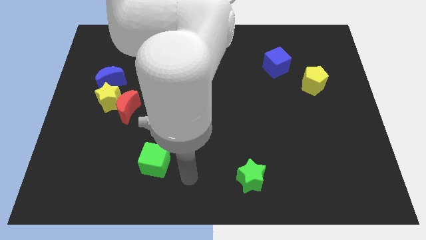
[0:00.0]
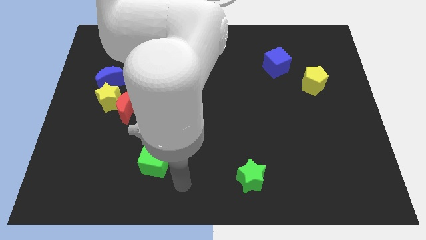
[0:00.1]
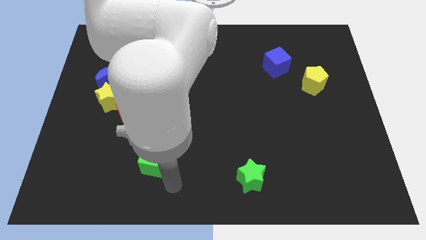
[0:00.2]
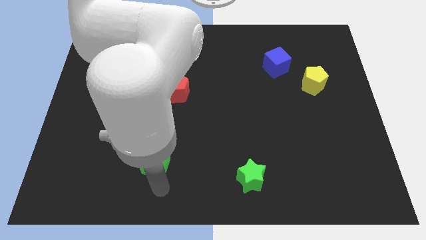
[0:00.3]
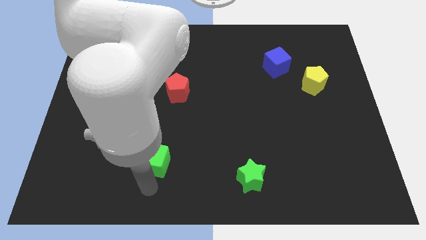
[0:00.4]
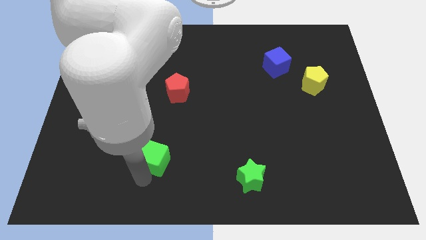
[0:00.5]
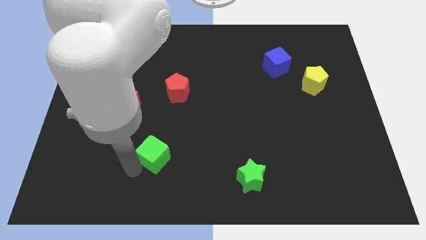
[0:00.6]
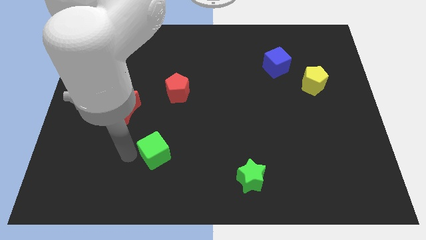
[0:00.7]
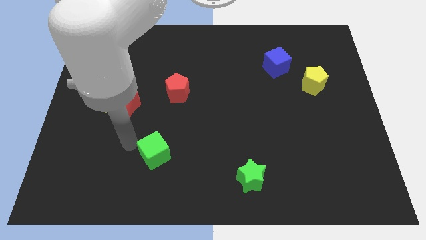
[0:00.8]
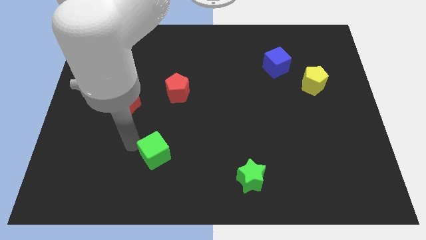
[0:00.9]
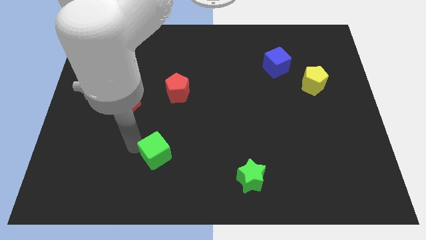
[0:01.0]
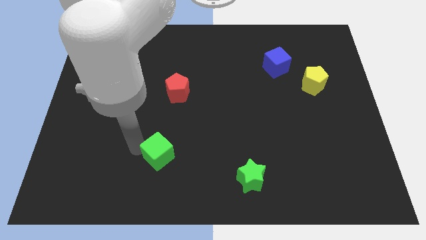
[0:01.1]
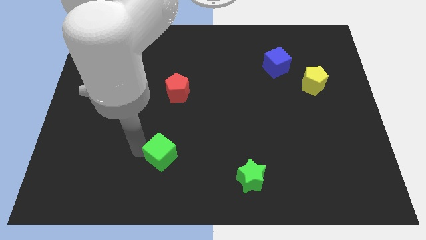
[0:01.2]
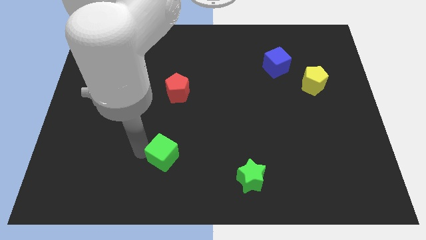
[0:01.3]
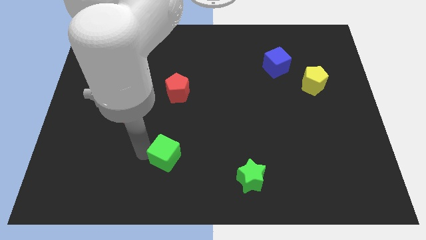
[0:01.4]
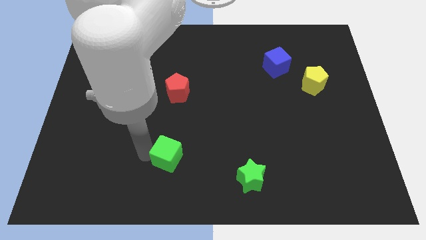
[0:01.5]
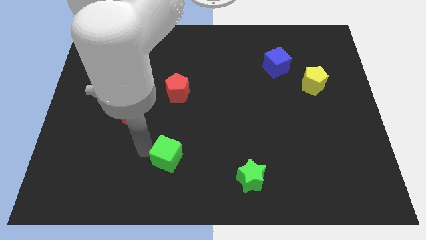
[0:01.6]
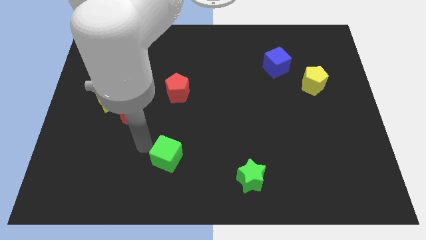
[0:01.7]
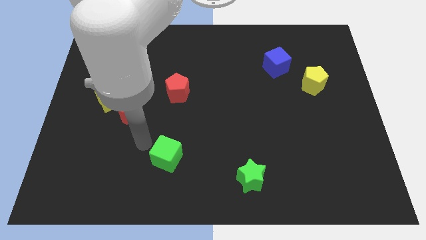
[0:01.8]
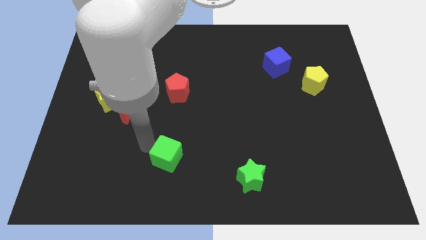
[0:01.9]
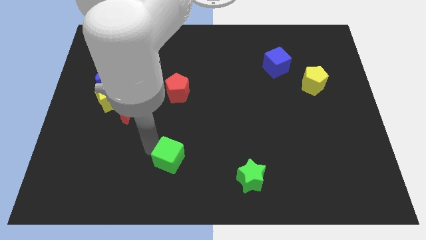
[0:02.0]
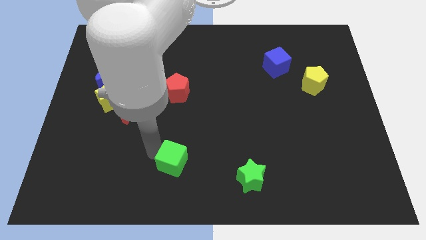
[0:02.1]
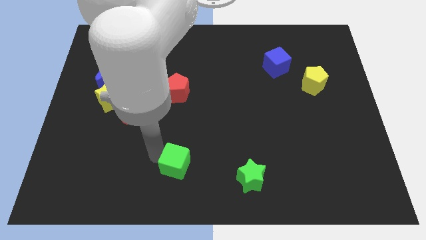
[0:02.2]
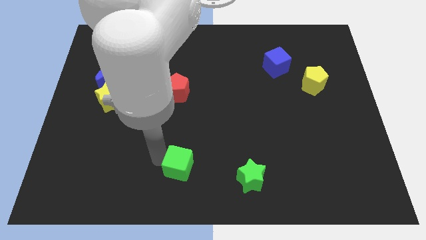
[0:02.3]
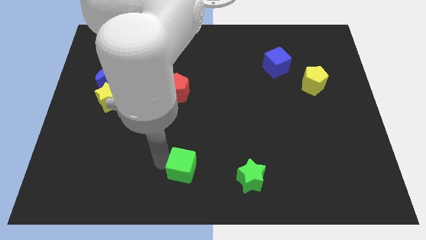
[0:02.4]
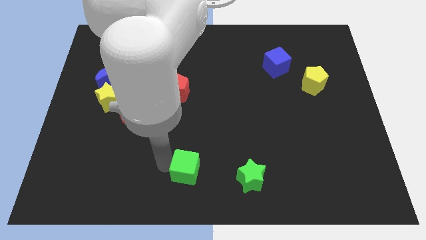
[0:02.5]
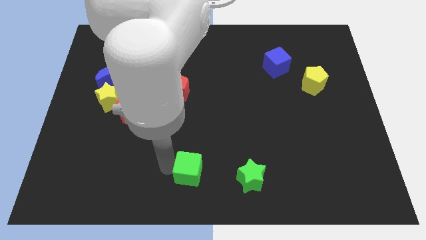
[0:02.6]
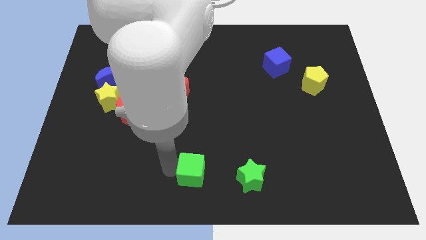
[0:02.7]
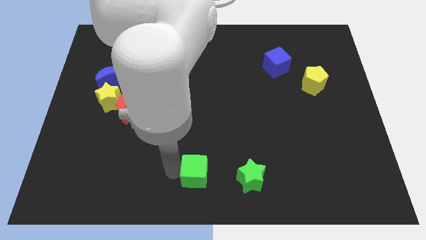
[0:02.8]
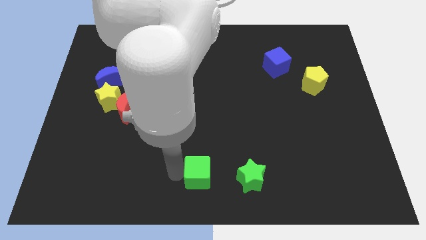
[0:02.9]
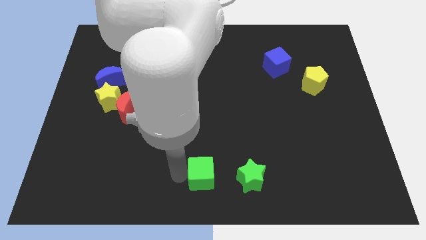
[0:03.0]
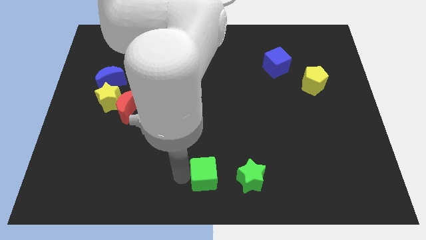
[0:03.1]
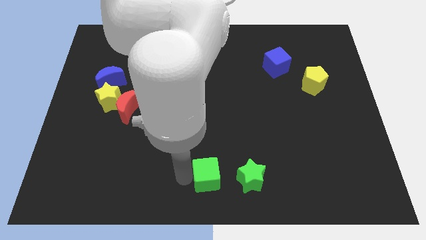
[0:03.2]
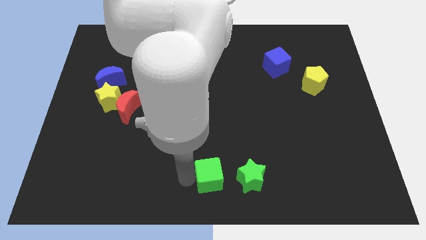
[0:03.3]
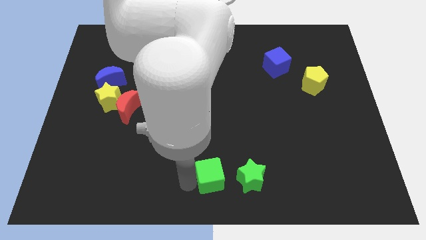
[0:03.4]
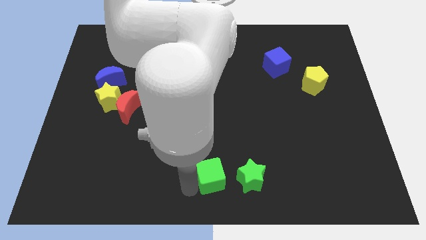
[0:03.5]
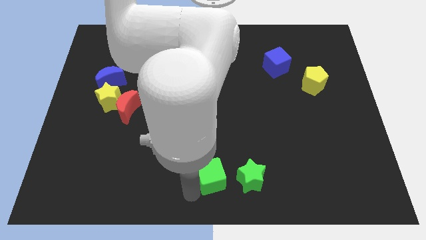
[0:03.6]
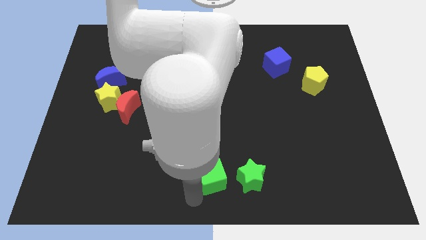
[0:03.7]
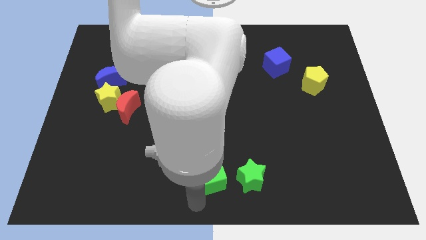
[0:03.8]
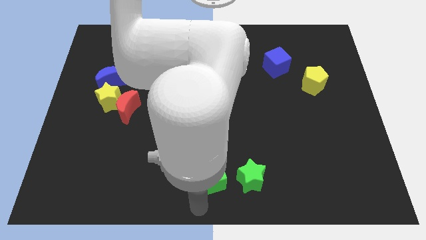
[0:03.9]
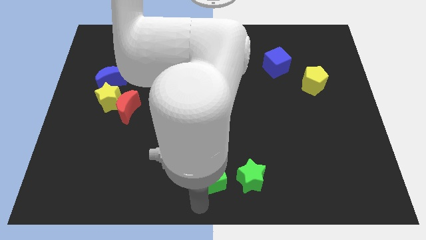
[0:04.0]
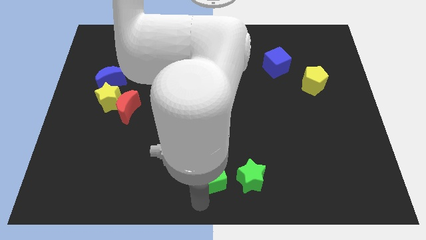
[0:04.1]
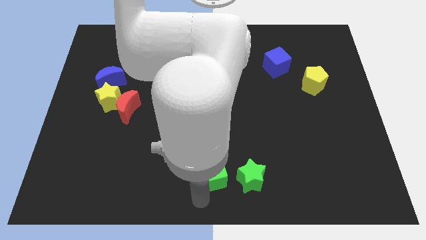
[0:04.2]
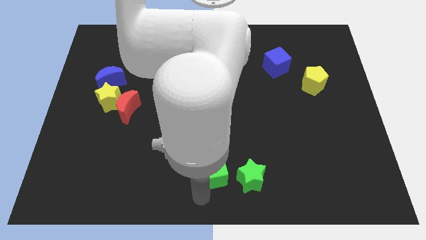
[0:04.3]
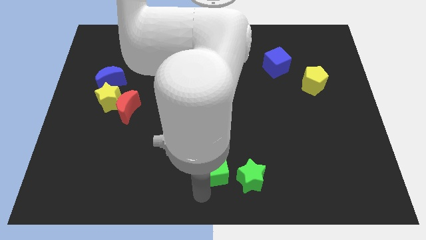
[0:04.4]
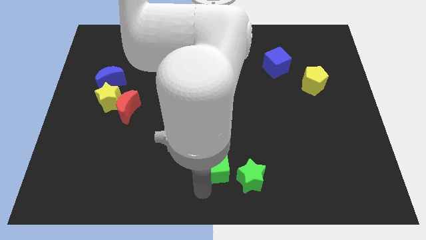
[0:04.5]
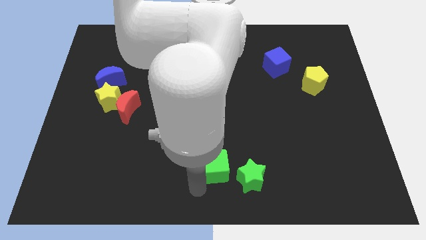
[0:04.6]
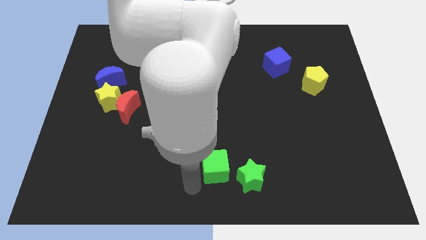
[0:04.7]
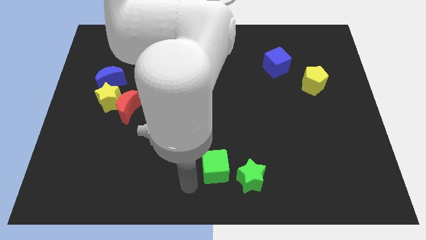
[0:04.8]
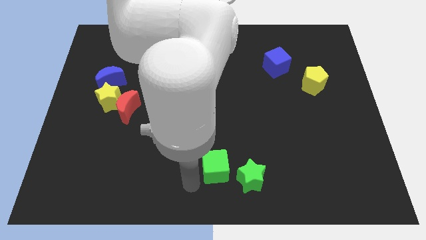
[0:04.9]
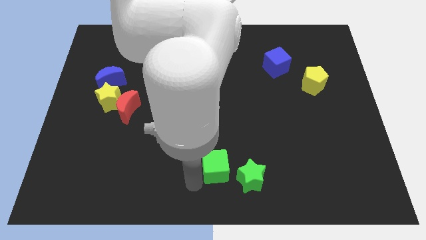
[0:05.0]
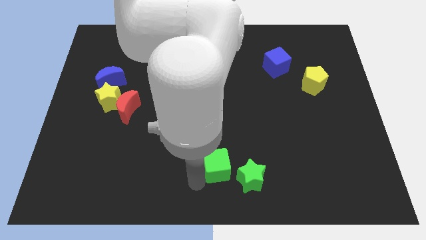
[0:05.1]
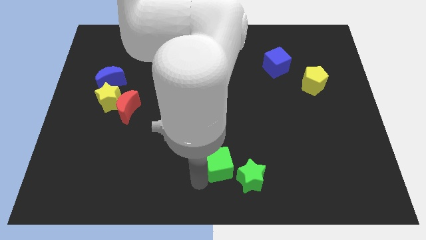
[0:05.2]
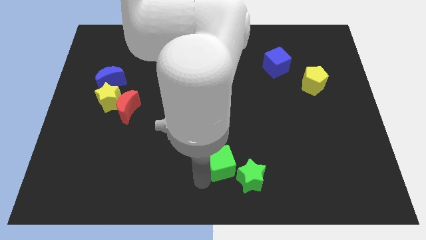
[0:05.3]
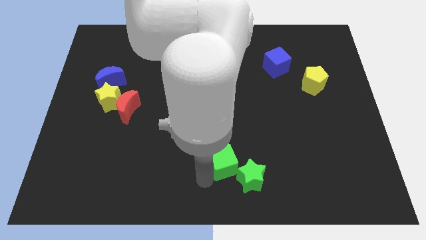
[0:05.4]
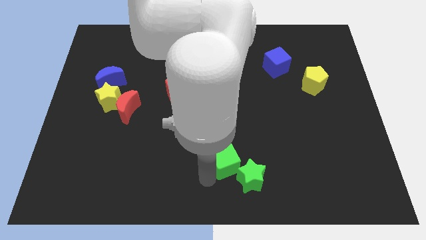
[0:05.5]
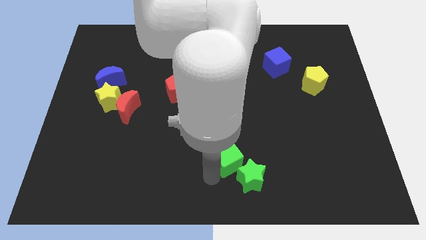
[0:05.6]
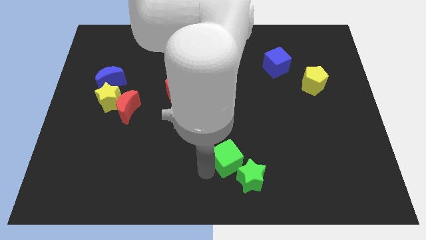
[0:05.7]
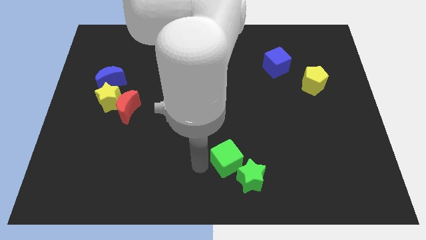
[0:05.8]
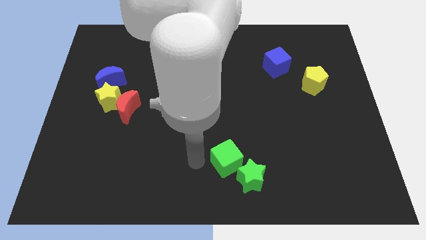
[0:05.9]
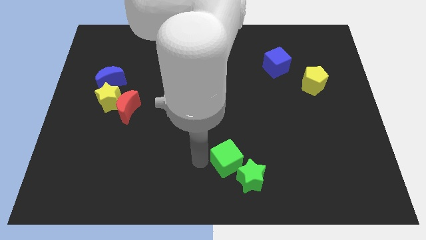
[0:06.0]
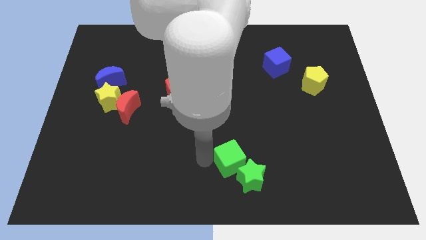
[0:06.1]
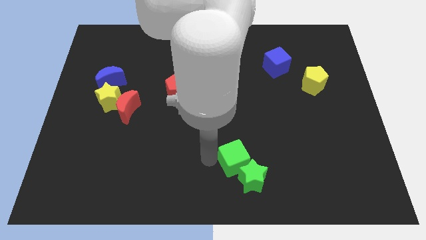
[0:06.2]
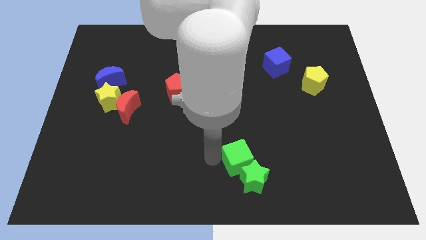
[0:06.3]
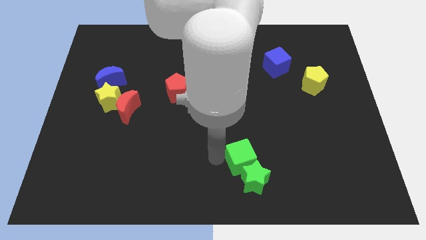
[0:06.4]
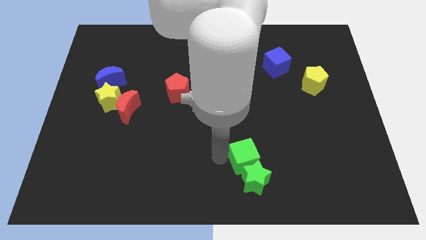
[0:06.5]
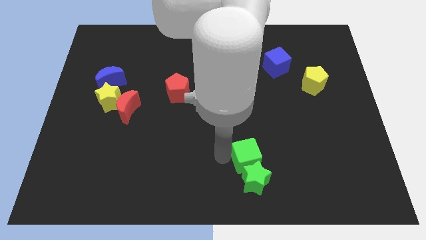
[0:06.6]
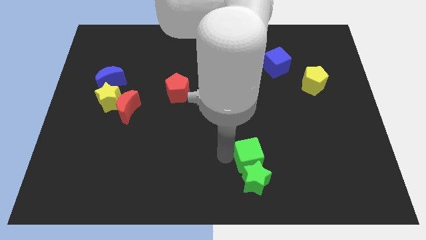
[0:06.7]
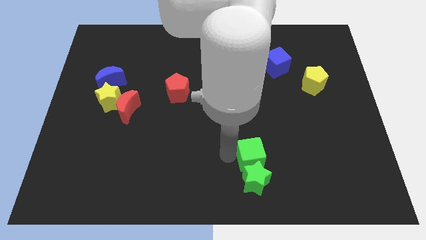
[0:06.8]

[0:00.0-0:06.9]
push the green cube to the right

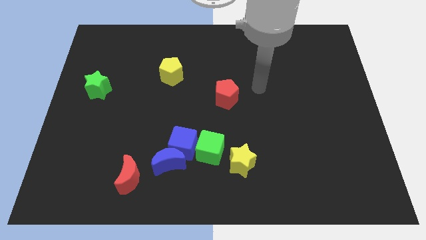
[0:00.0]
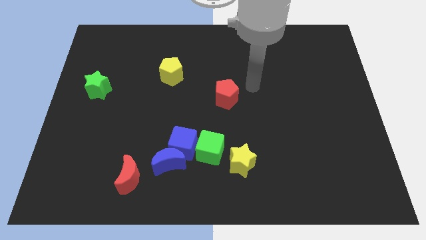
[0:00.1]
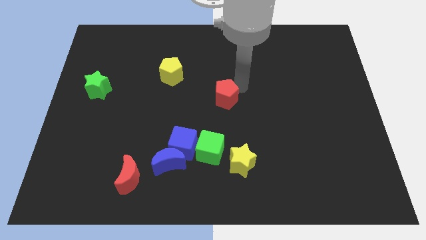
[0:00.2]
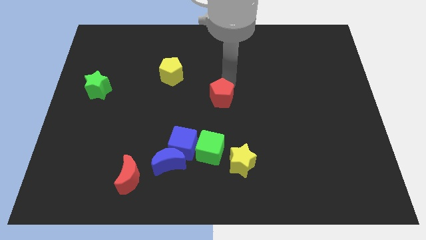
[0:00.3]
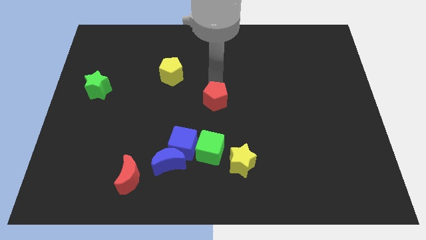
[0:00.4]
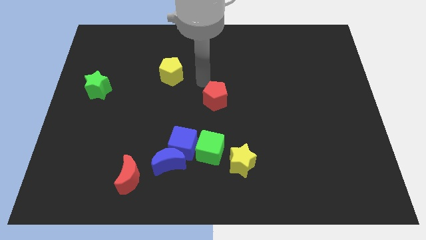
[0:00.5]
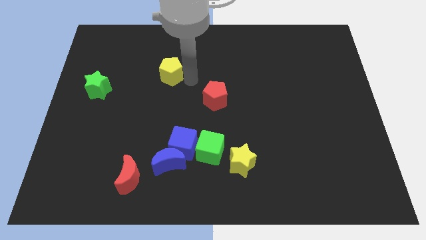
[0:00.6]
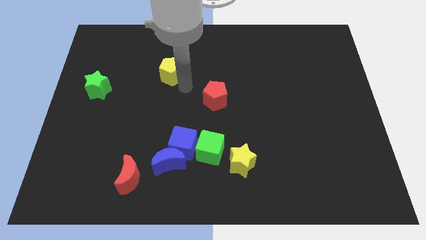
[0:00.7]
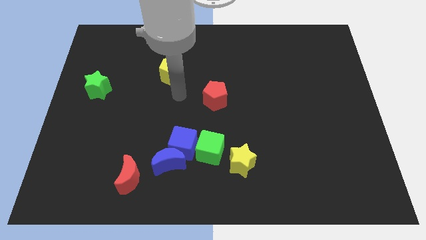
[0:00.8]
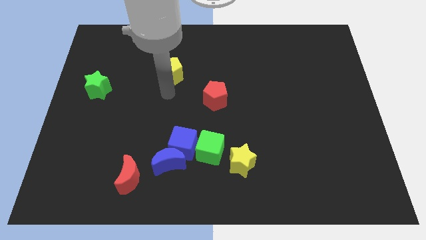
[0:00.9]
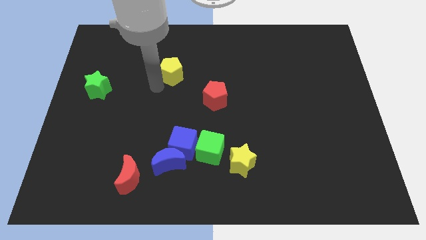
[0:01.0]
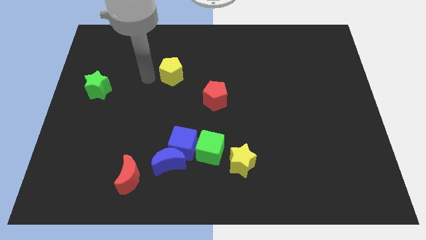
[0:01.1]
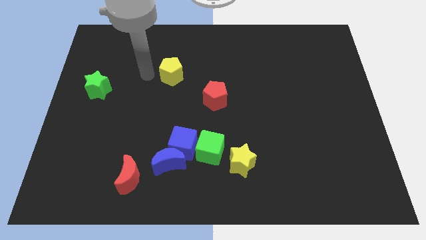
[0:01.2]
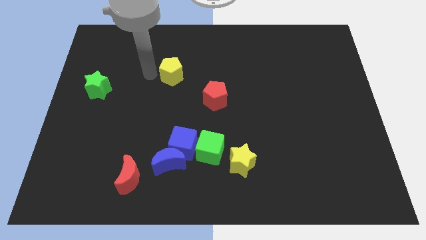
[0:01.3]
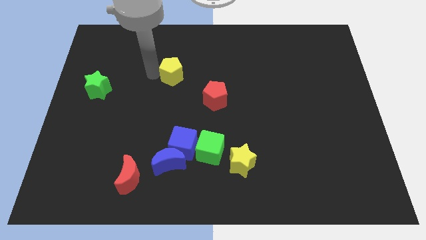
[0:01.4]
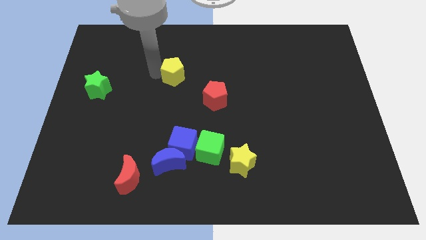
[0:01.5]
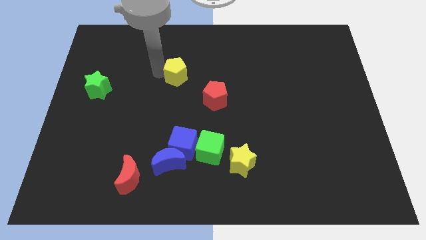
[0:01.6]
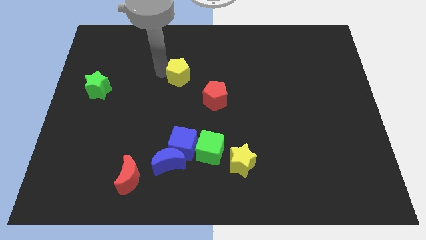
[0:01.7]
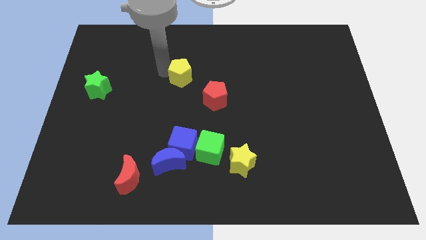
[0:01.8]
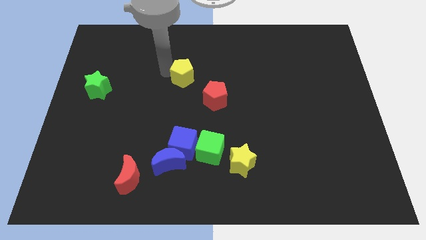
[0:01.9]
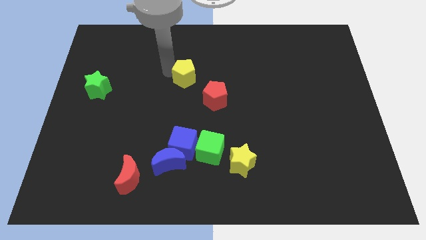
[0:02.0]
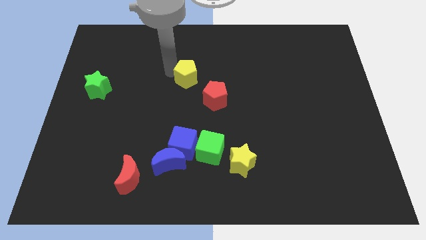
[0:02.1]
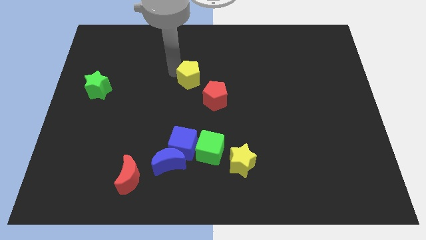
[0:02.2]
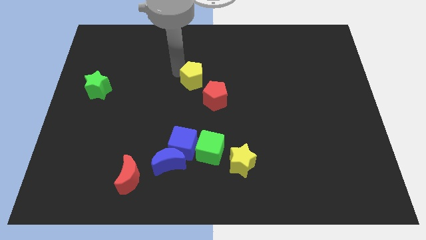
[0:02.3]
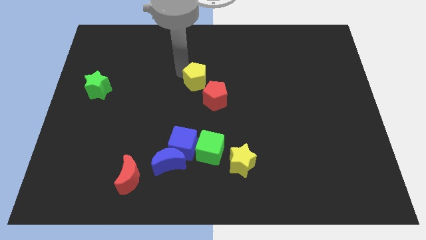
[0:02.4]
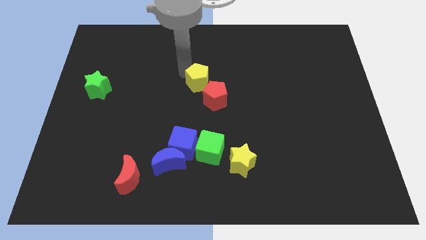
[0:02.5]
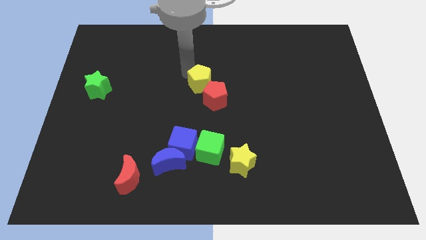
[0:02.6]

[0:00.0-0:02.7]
slightly push the yellow pentagon to the right
